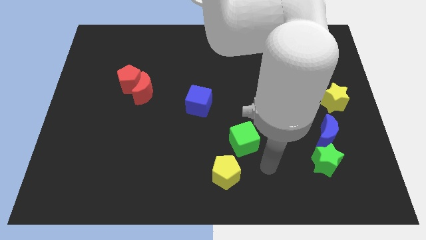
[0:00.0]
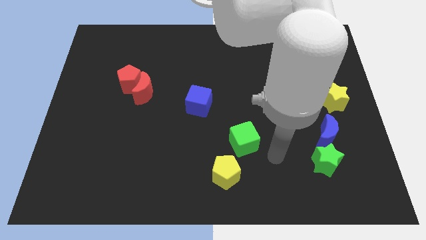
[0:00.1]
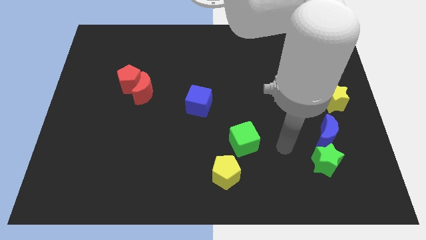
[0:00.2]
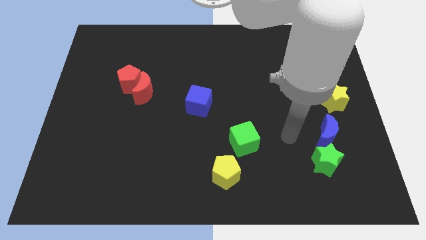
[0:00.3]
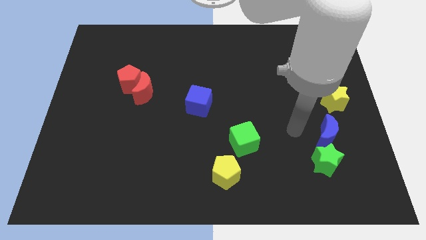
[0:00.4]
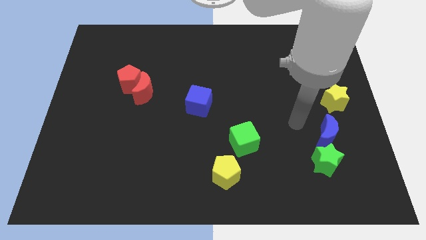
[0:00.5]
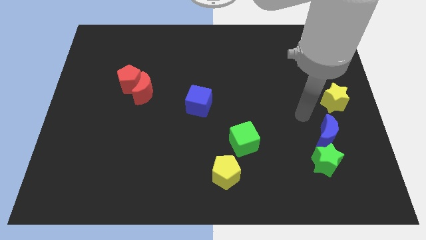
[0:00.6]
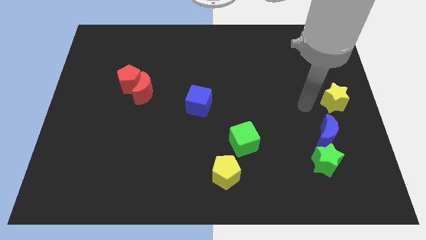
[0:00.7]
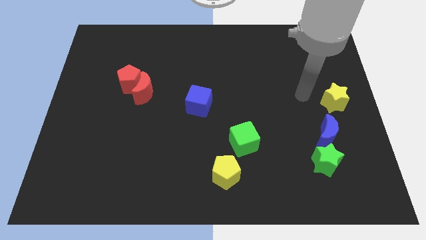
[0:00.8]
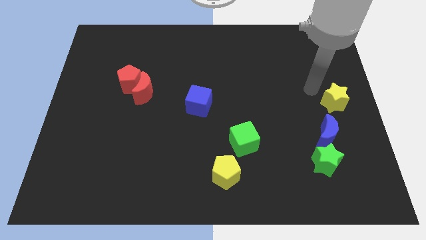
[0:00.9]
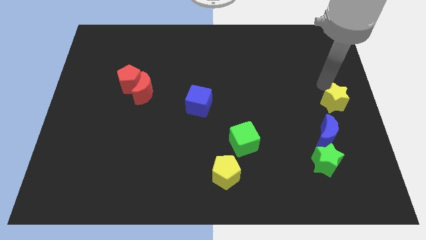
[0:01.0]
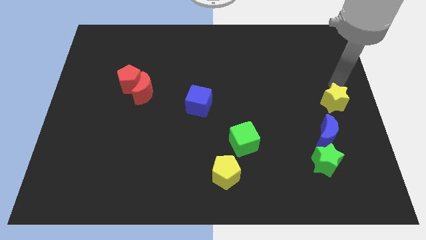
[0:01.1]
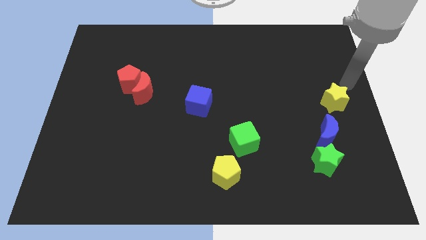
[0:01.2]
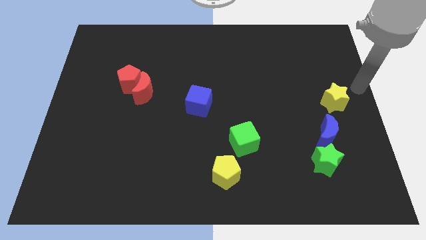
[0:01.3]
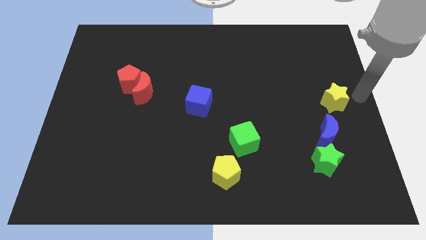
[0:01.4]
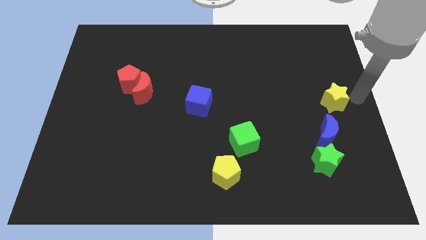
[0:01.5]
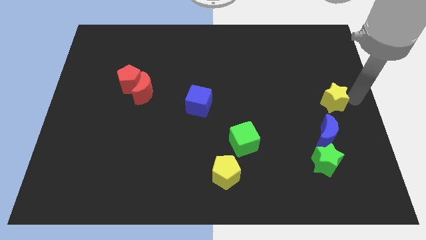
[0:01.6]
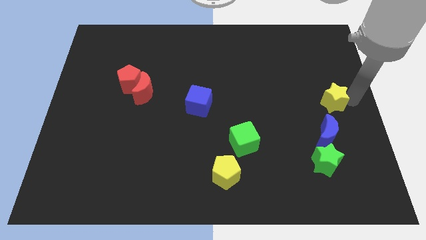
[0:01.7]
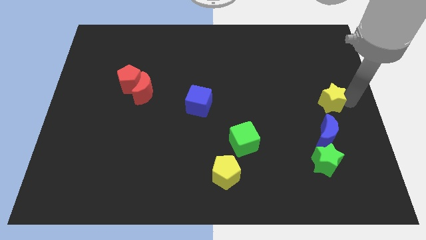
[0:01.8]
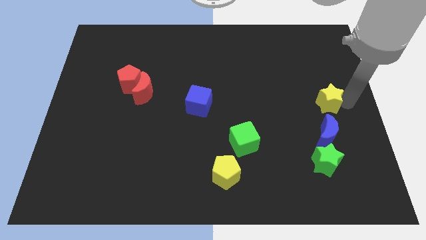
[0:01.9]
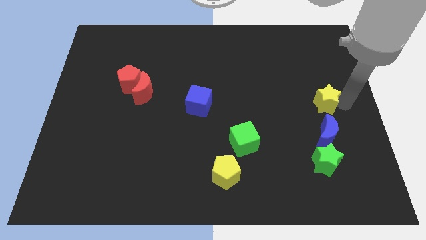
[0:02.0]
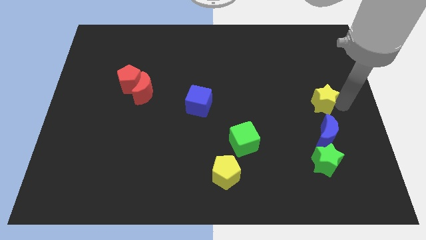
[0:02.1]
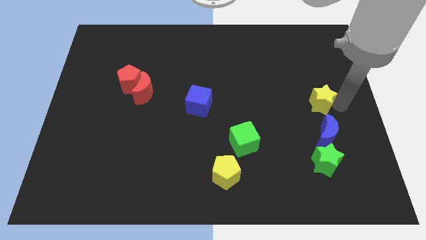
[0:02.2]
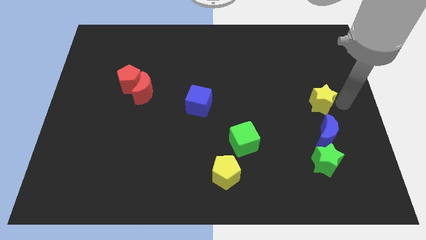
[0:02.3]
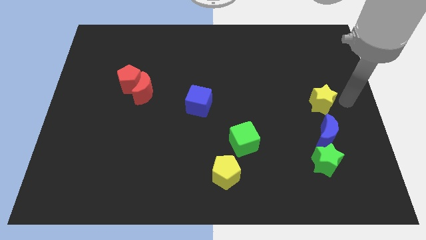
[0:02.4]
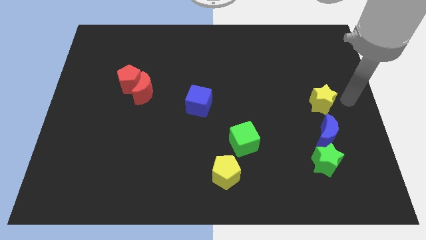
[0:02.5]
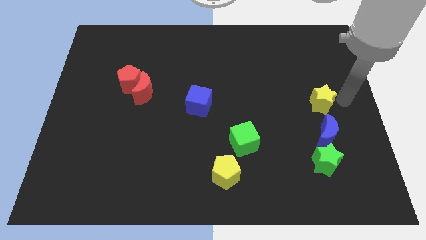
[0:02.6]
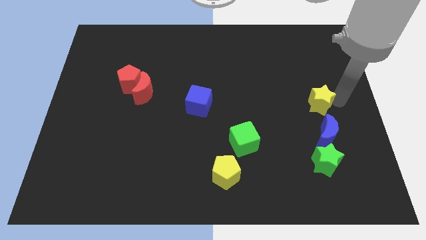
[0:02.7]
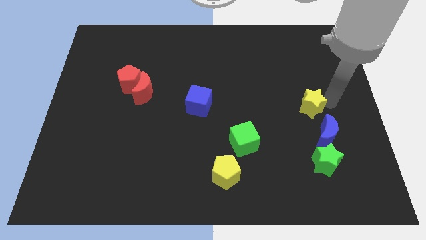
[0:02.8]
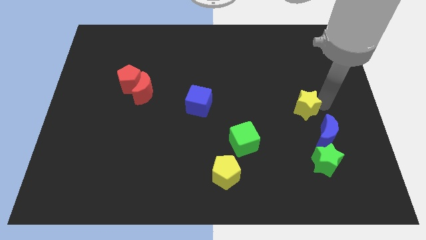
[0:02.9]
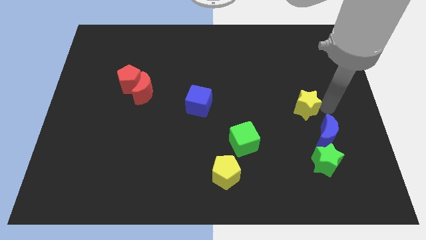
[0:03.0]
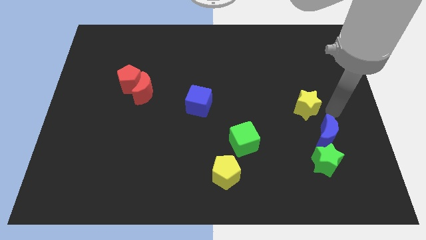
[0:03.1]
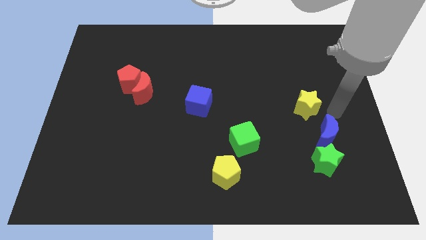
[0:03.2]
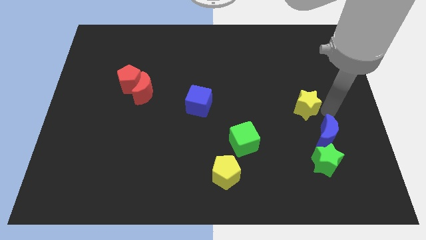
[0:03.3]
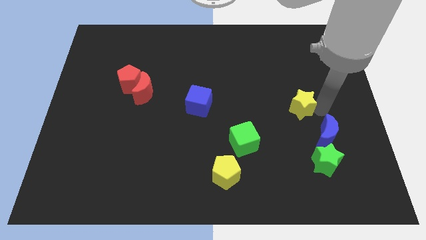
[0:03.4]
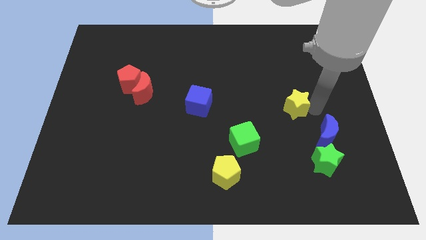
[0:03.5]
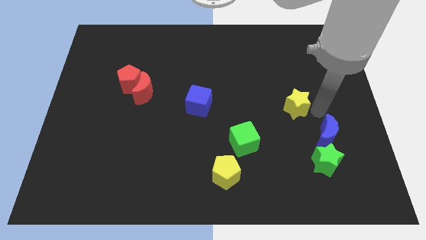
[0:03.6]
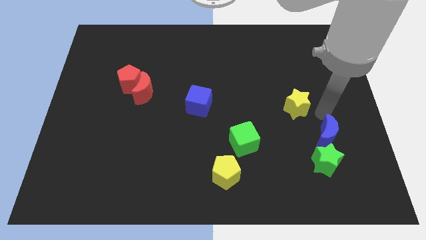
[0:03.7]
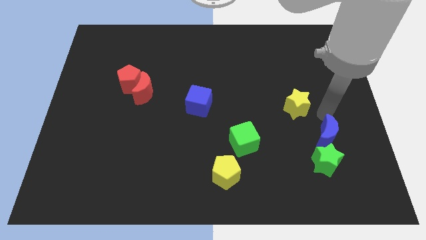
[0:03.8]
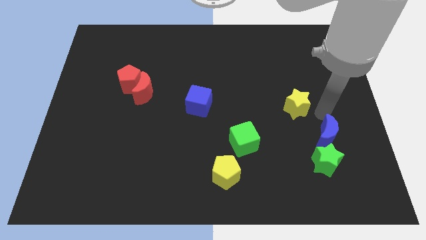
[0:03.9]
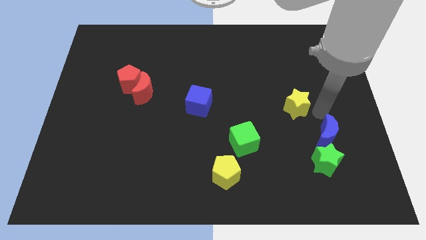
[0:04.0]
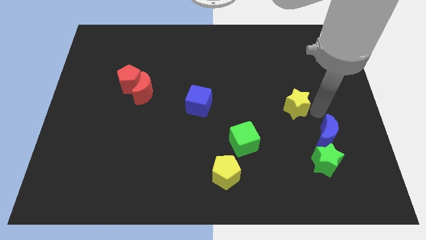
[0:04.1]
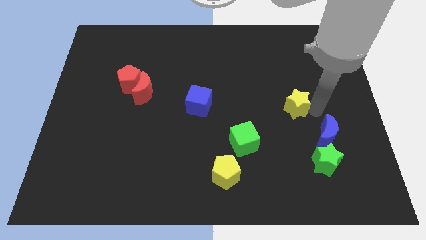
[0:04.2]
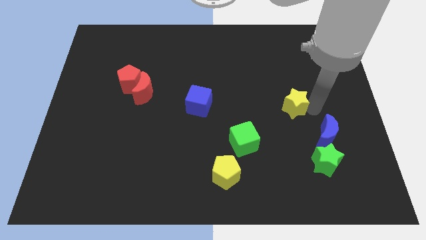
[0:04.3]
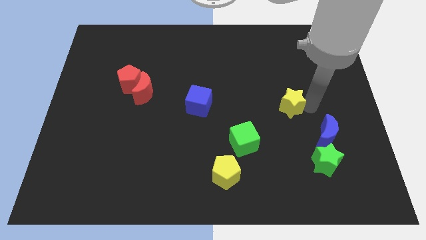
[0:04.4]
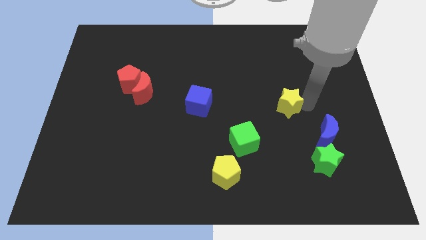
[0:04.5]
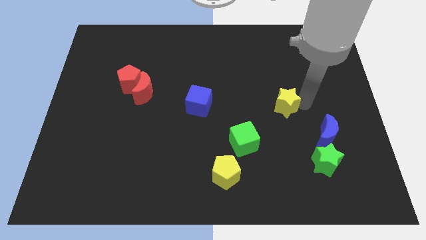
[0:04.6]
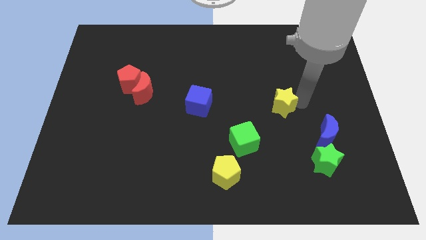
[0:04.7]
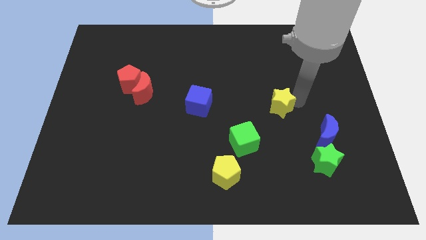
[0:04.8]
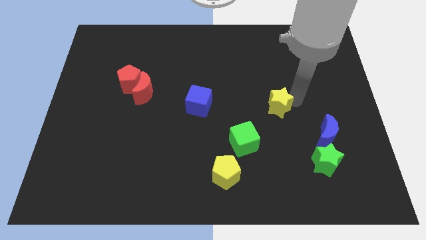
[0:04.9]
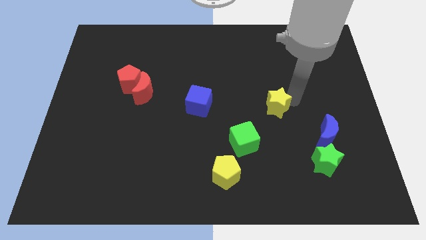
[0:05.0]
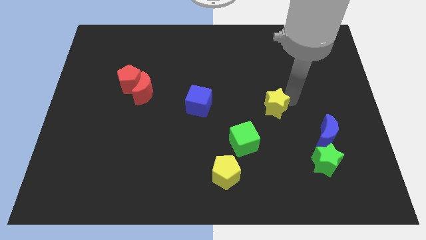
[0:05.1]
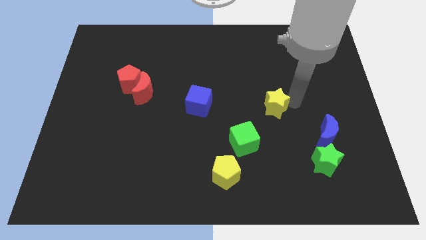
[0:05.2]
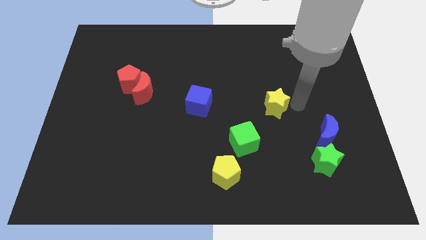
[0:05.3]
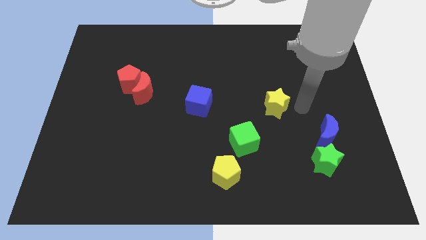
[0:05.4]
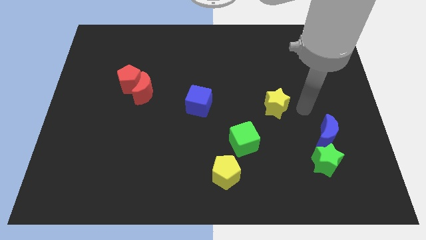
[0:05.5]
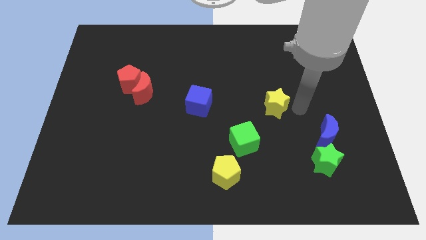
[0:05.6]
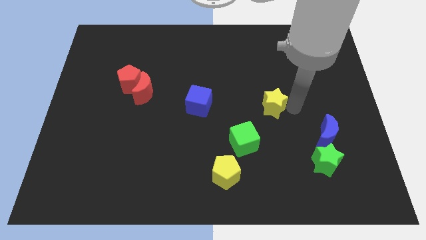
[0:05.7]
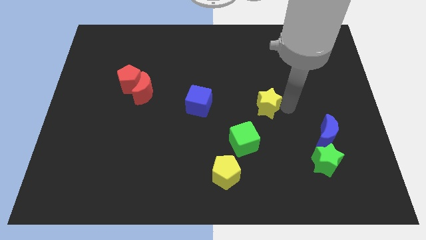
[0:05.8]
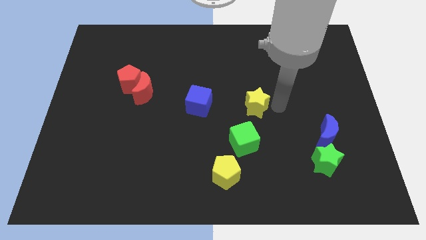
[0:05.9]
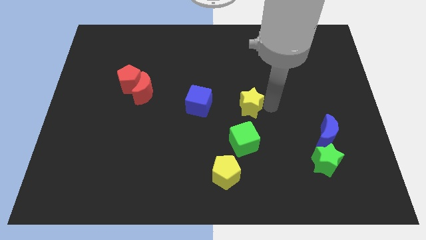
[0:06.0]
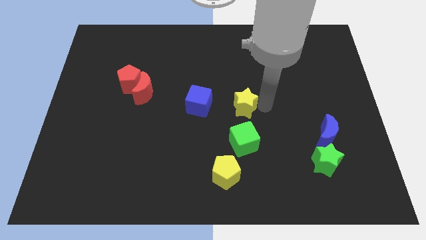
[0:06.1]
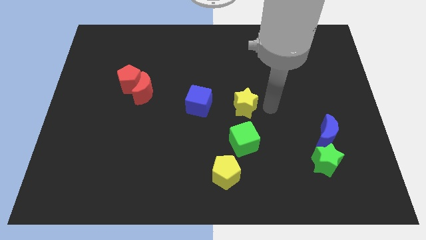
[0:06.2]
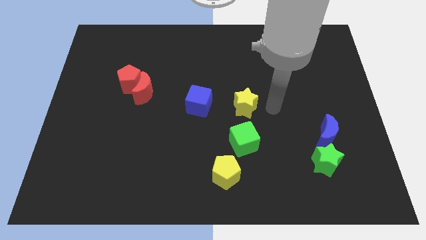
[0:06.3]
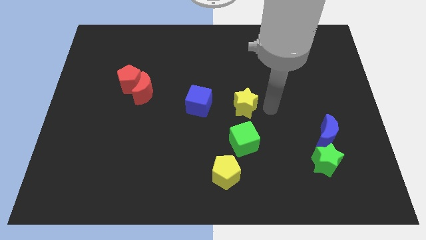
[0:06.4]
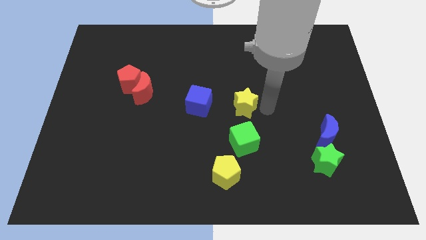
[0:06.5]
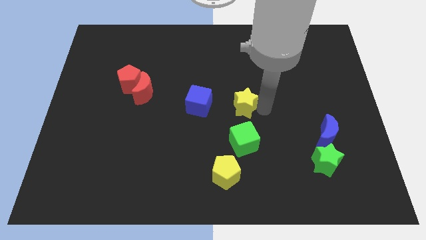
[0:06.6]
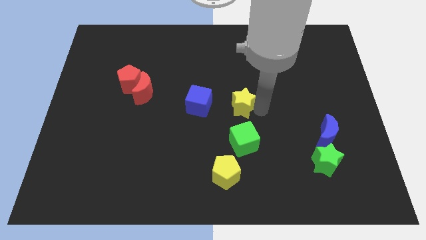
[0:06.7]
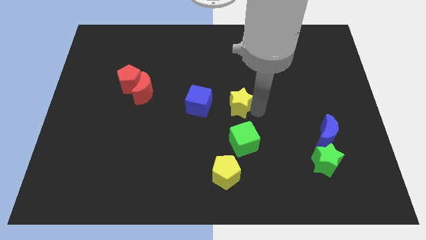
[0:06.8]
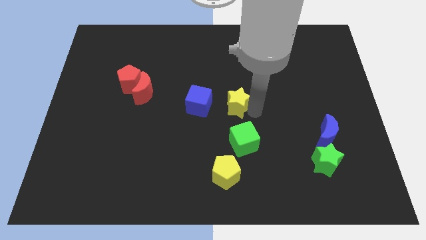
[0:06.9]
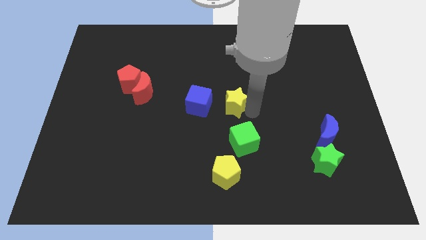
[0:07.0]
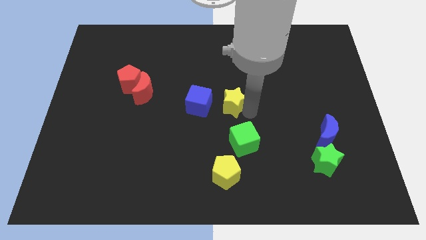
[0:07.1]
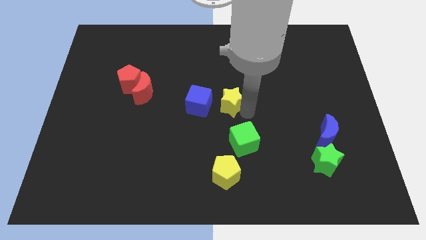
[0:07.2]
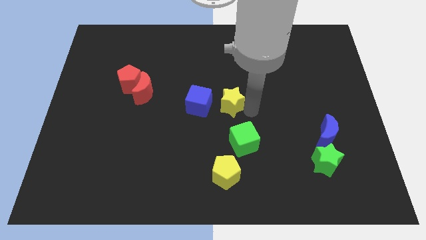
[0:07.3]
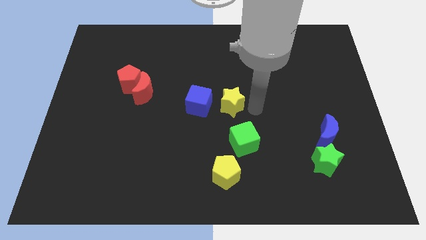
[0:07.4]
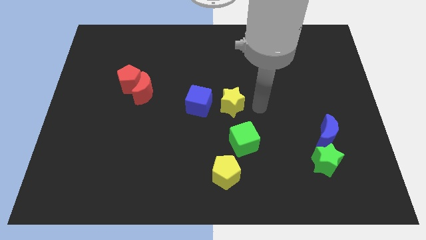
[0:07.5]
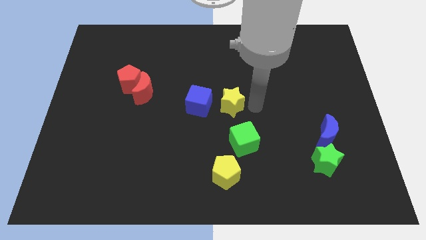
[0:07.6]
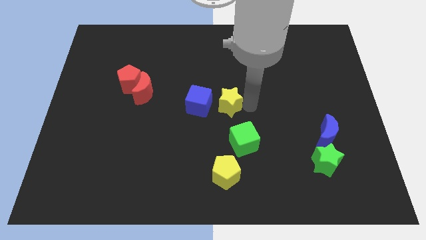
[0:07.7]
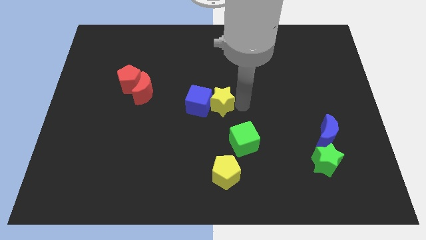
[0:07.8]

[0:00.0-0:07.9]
move the yellow star towards the blue cube
